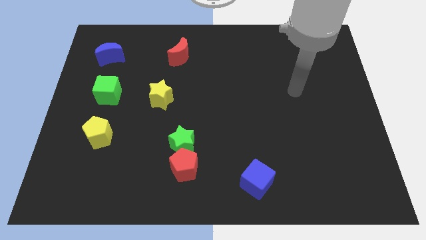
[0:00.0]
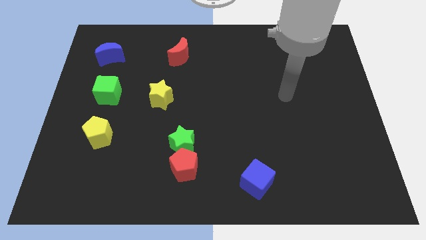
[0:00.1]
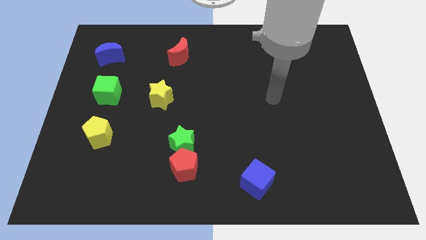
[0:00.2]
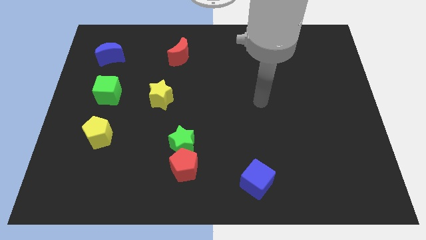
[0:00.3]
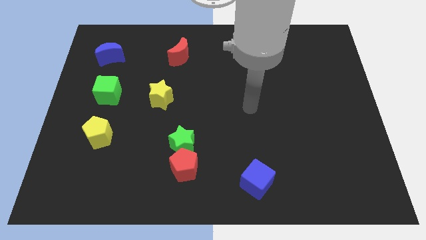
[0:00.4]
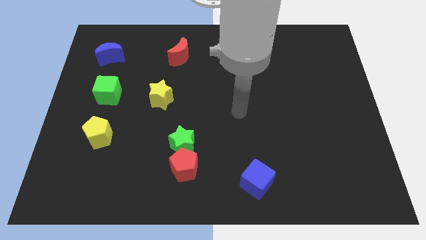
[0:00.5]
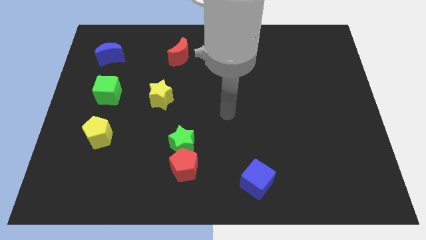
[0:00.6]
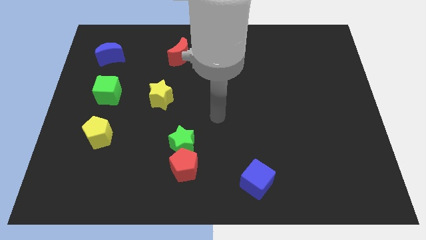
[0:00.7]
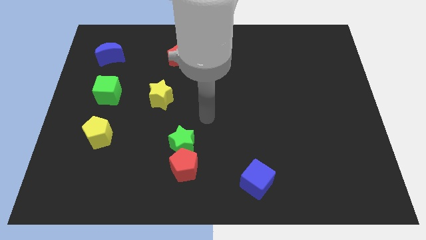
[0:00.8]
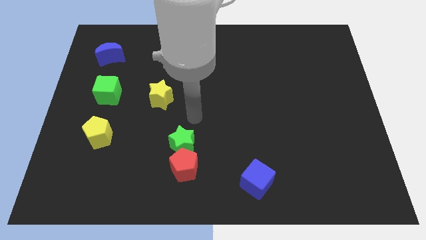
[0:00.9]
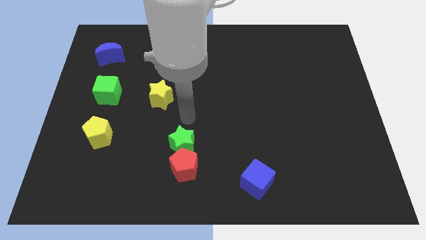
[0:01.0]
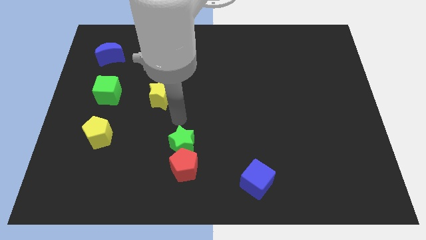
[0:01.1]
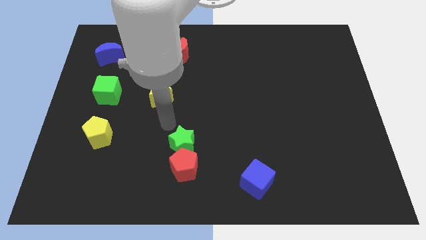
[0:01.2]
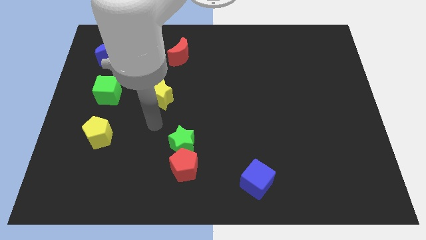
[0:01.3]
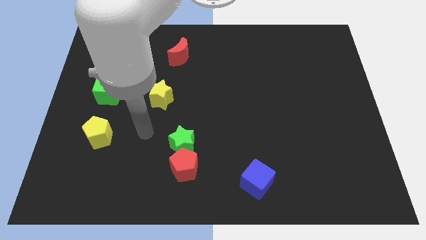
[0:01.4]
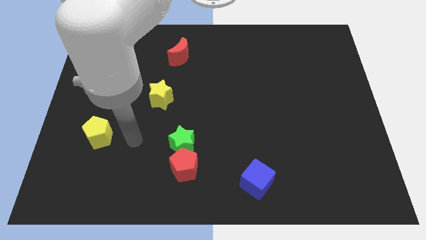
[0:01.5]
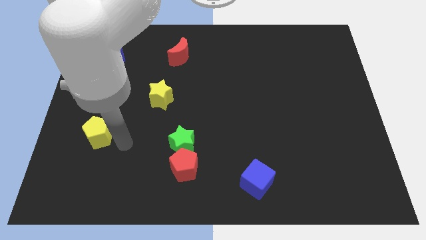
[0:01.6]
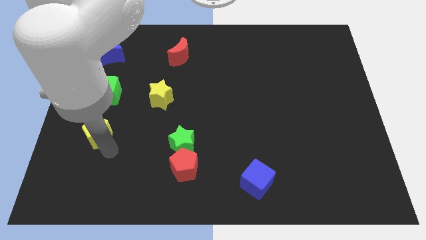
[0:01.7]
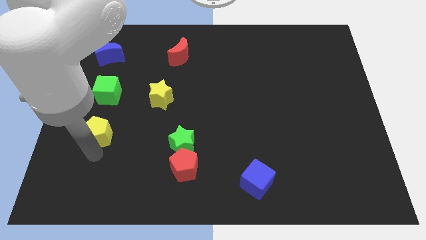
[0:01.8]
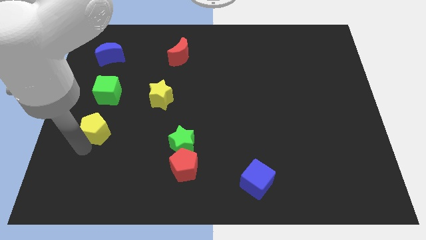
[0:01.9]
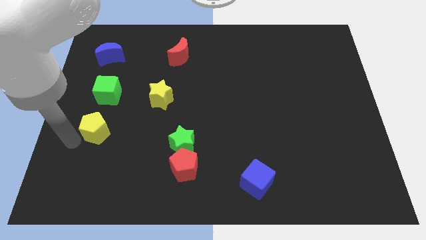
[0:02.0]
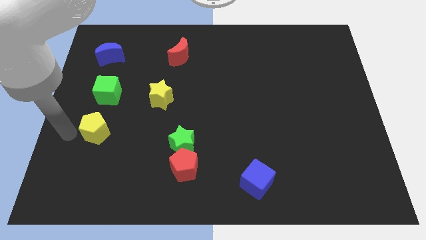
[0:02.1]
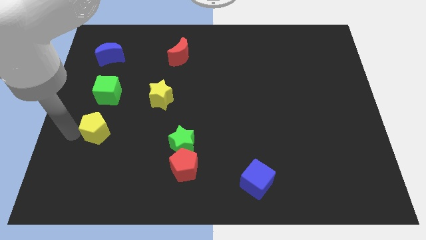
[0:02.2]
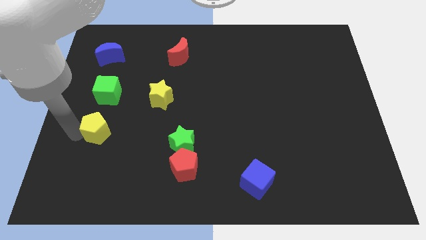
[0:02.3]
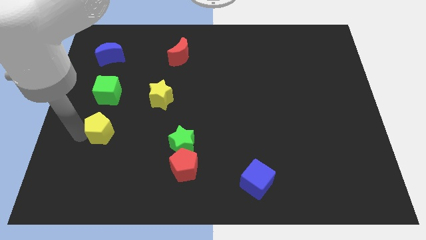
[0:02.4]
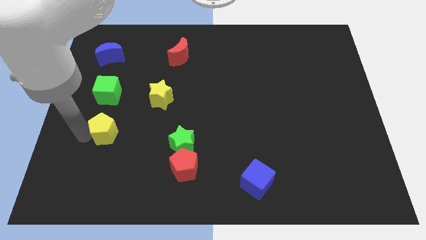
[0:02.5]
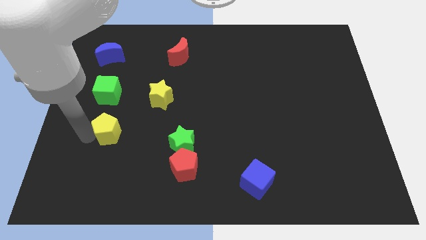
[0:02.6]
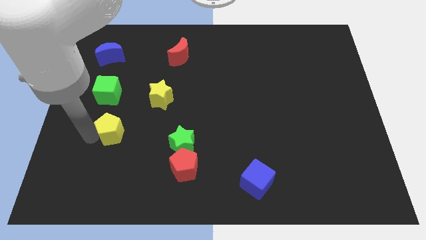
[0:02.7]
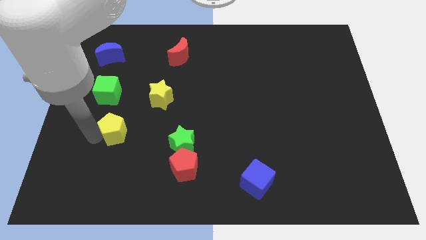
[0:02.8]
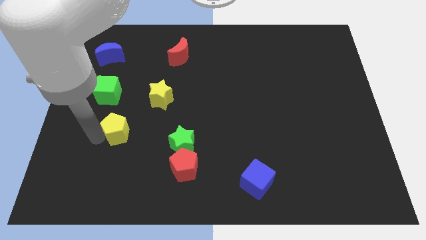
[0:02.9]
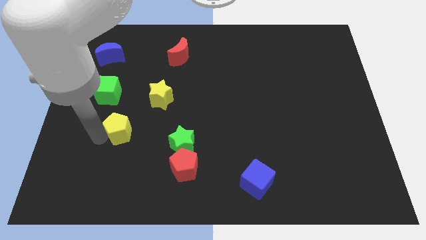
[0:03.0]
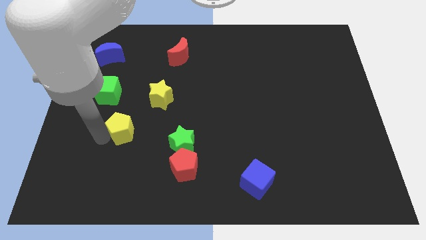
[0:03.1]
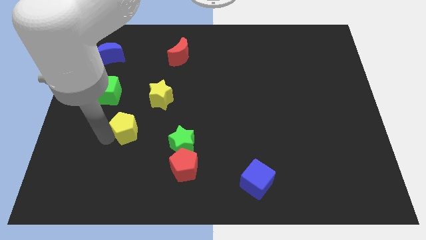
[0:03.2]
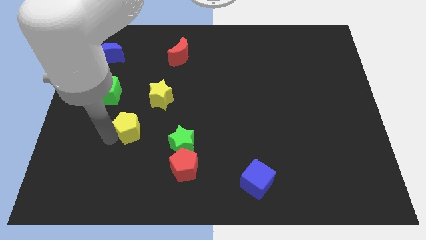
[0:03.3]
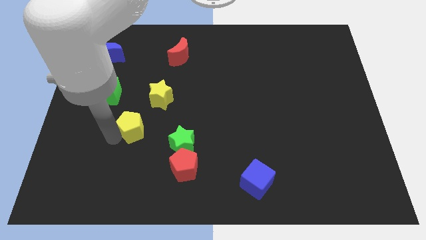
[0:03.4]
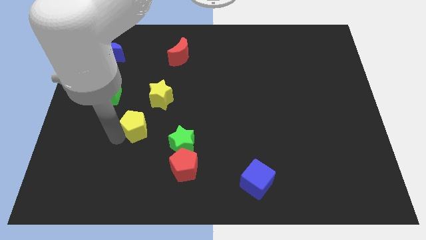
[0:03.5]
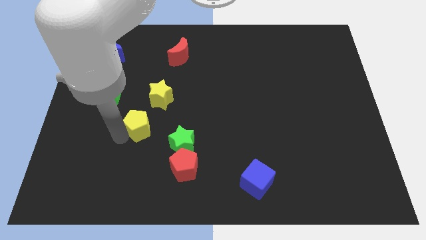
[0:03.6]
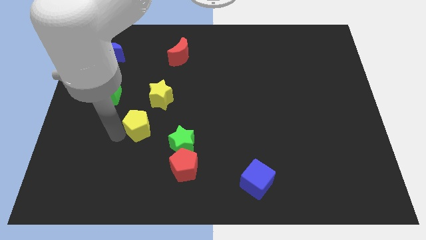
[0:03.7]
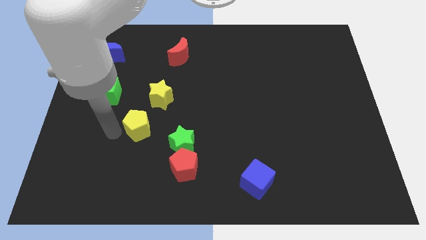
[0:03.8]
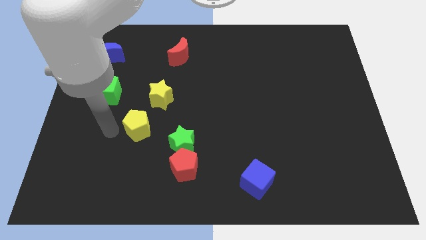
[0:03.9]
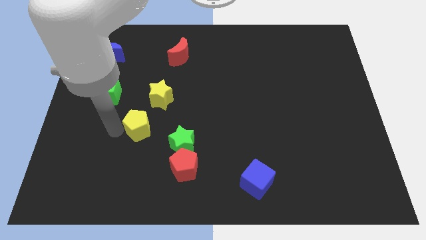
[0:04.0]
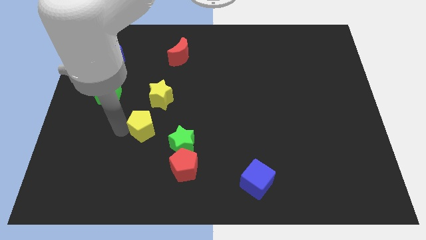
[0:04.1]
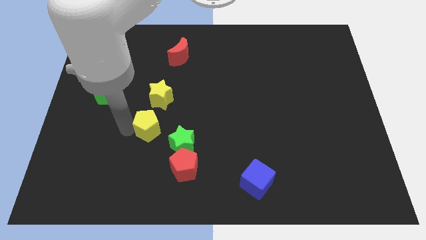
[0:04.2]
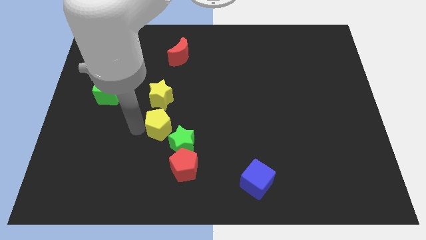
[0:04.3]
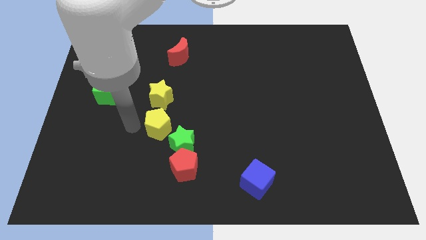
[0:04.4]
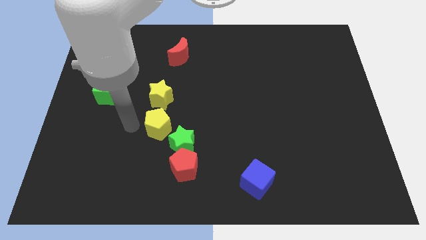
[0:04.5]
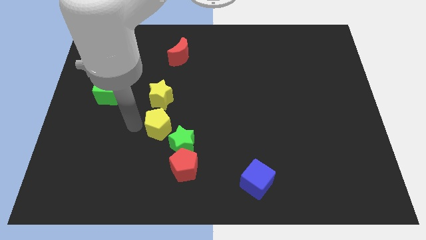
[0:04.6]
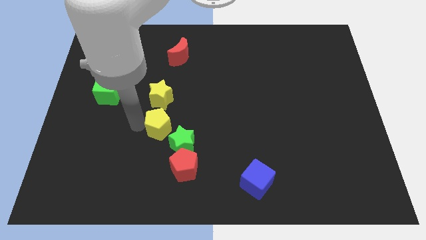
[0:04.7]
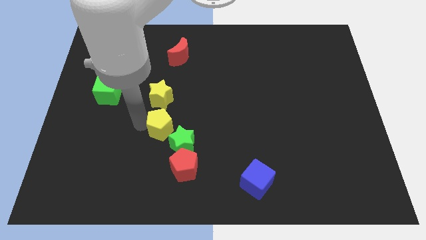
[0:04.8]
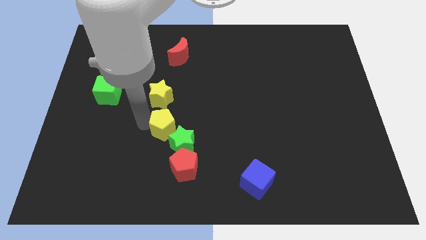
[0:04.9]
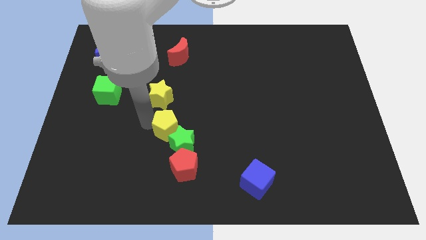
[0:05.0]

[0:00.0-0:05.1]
push the yellow pentagon to the top side of the red pentagon

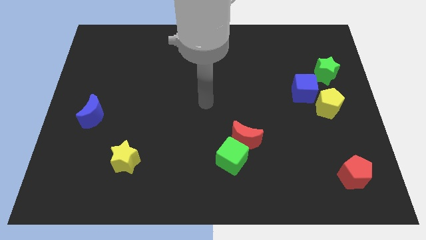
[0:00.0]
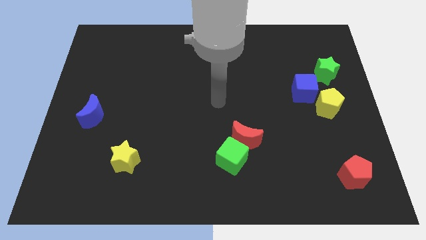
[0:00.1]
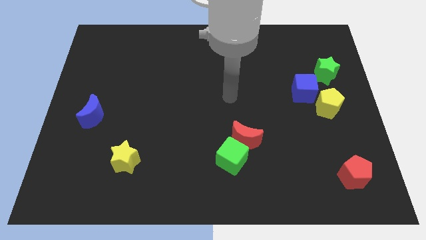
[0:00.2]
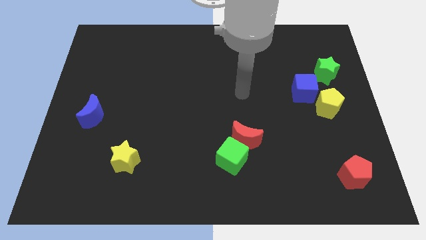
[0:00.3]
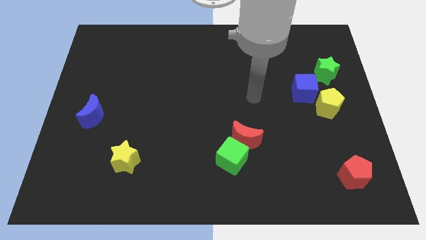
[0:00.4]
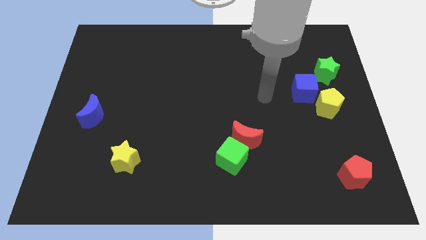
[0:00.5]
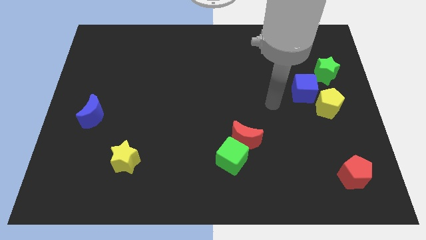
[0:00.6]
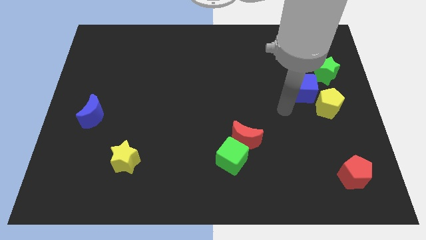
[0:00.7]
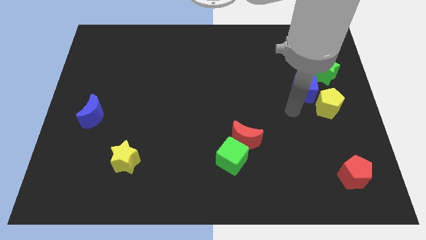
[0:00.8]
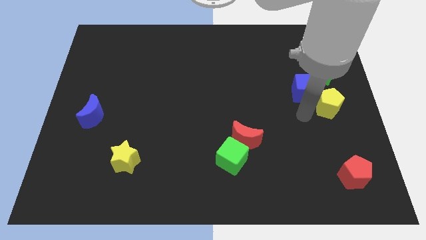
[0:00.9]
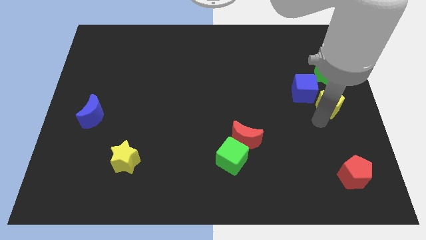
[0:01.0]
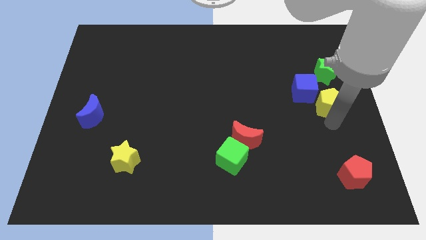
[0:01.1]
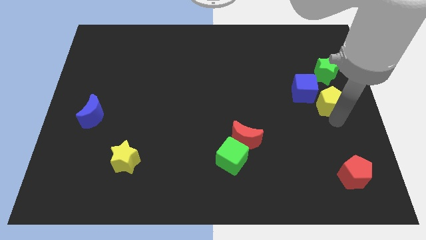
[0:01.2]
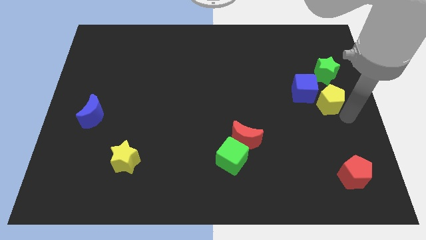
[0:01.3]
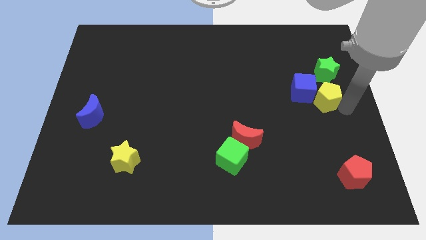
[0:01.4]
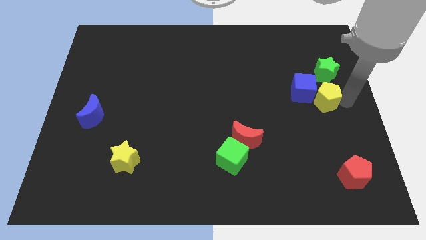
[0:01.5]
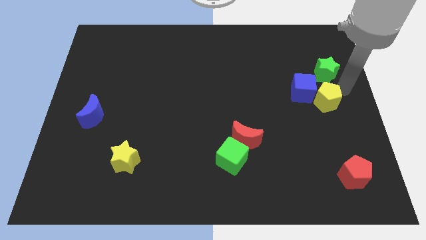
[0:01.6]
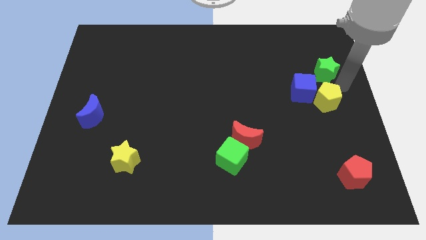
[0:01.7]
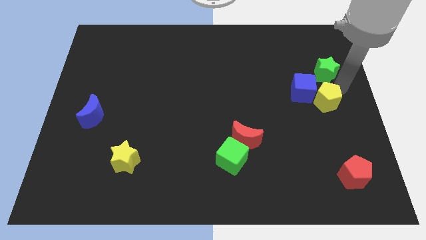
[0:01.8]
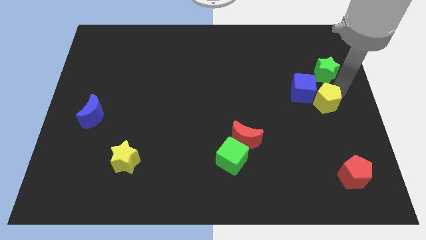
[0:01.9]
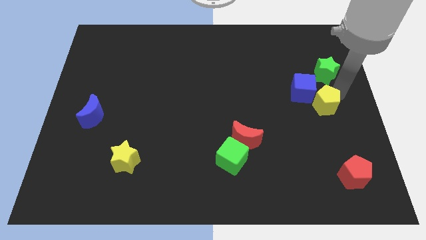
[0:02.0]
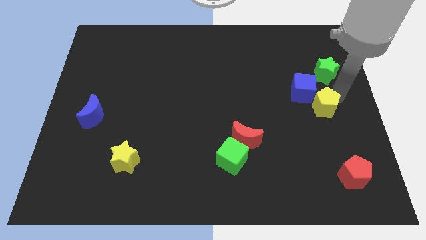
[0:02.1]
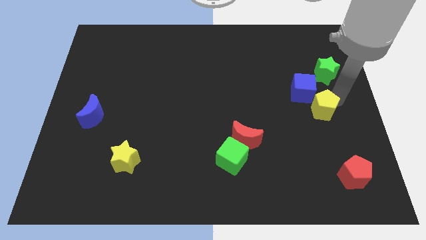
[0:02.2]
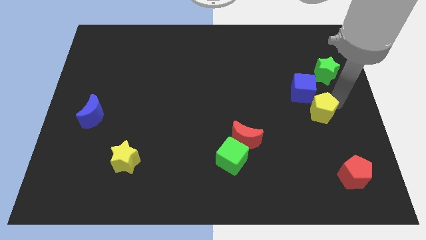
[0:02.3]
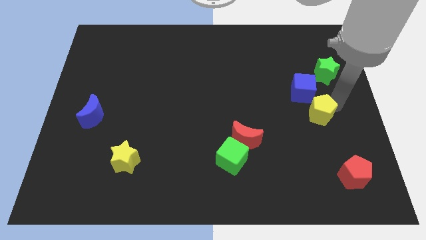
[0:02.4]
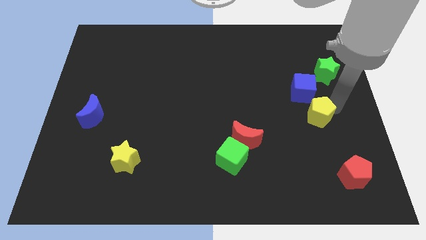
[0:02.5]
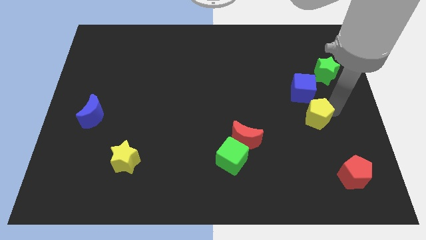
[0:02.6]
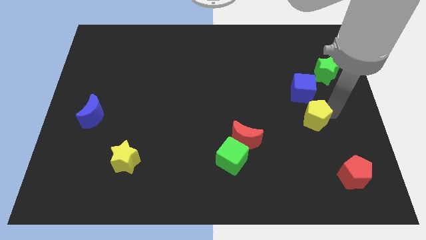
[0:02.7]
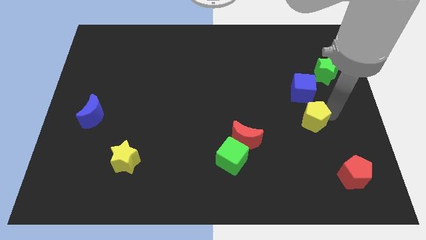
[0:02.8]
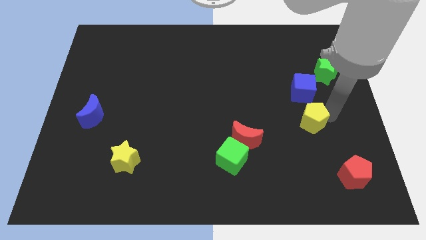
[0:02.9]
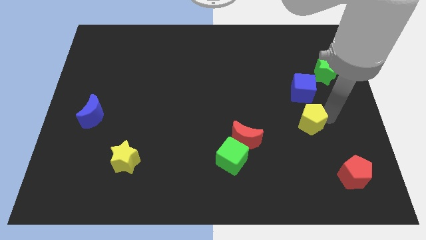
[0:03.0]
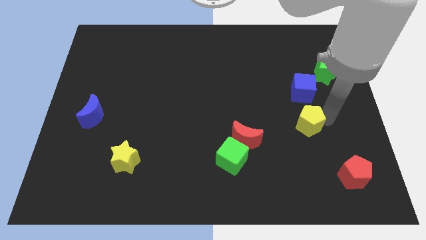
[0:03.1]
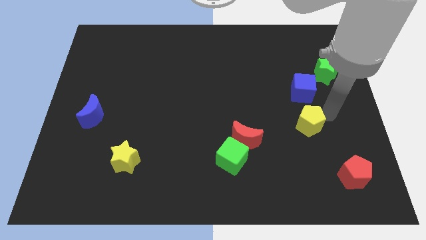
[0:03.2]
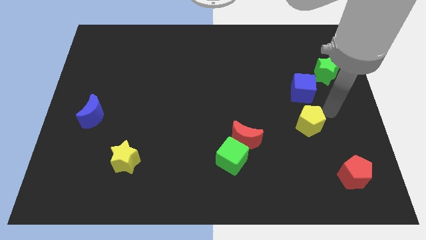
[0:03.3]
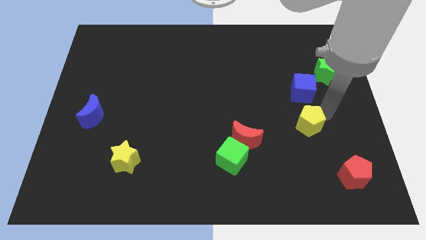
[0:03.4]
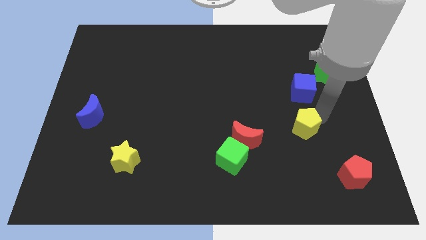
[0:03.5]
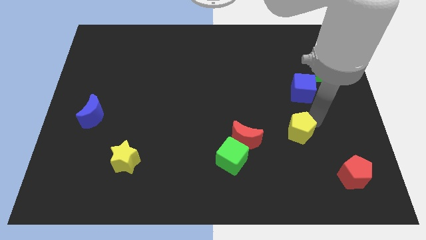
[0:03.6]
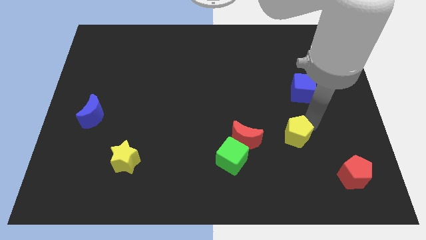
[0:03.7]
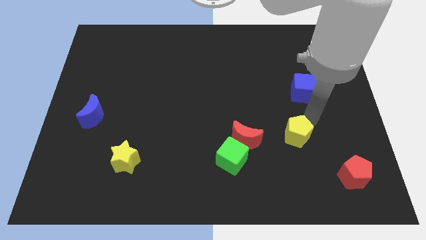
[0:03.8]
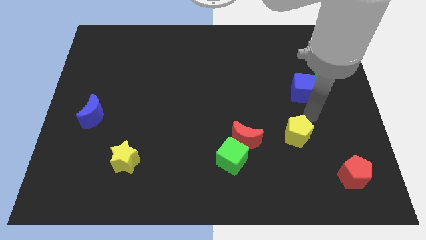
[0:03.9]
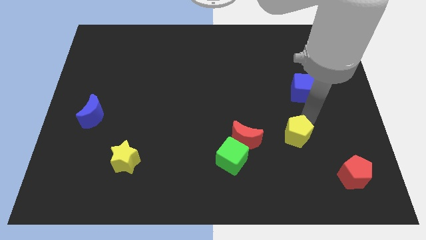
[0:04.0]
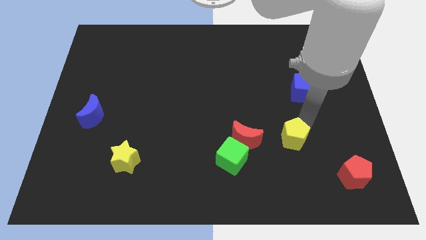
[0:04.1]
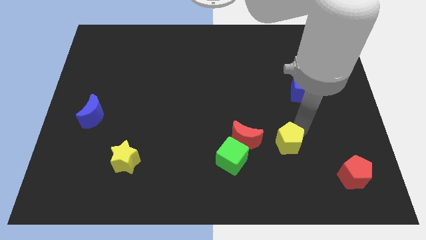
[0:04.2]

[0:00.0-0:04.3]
put the yellow pentagon to the right of the green cube
